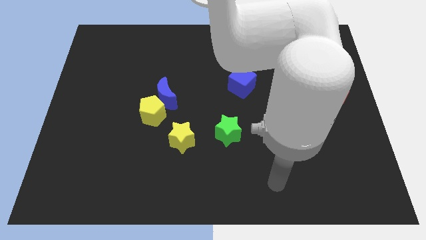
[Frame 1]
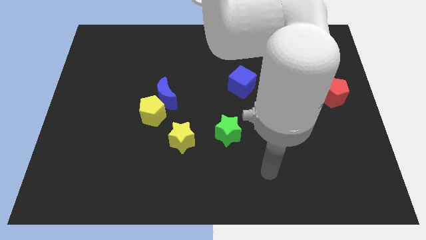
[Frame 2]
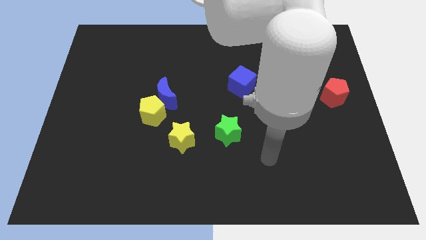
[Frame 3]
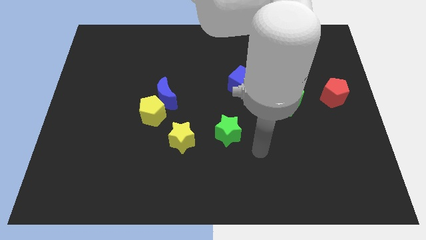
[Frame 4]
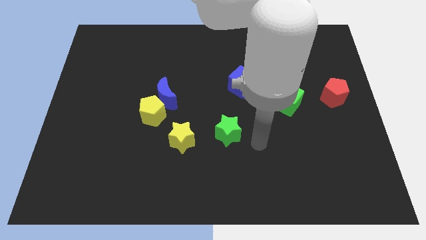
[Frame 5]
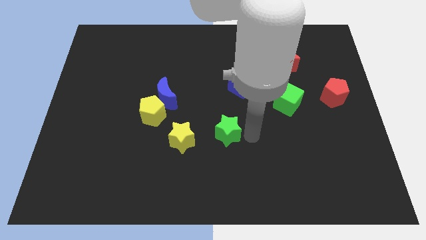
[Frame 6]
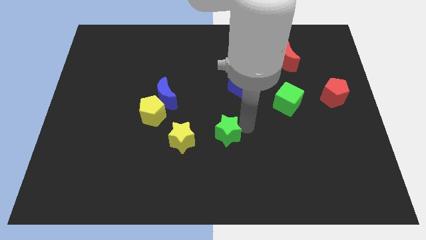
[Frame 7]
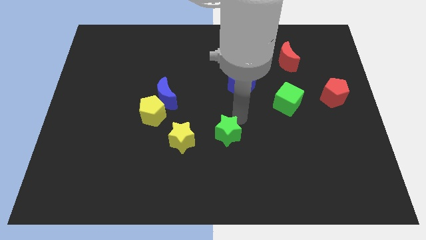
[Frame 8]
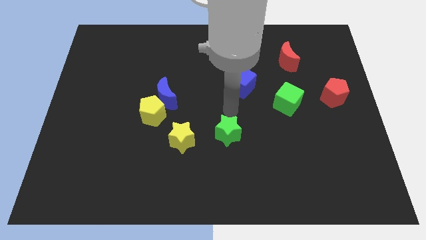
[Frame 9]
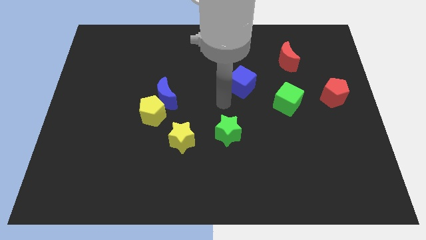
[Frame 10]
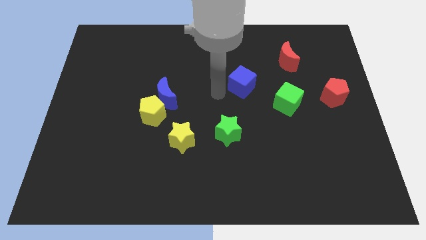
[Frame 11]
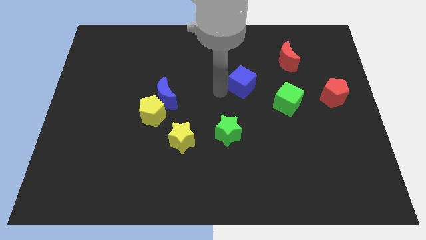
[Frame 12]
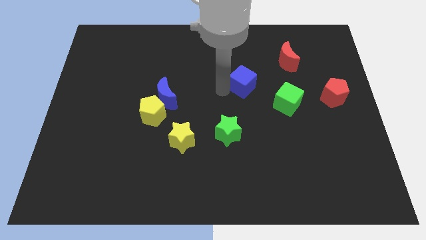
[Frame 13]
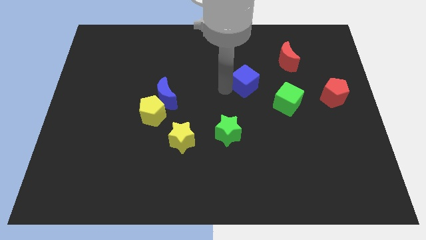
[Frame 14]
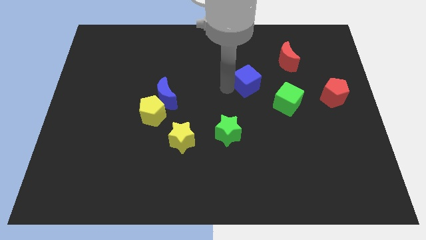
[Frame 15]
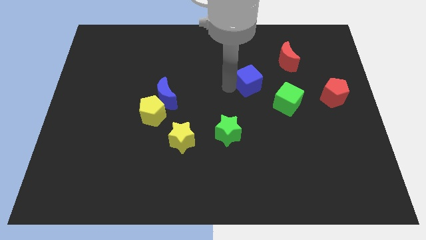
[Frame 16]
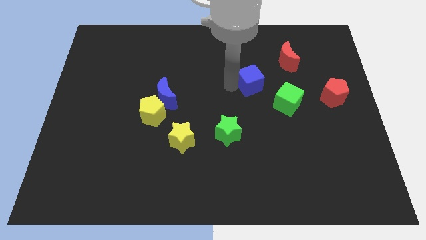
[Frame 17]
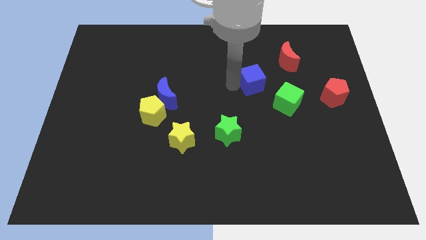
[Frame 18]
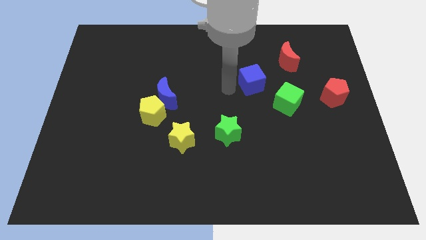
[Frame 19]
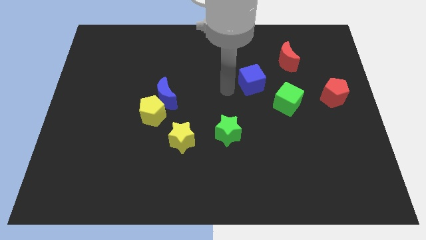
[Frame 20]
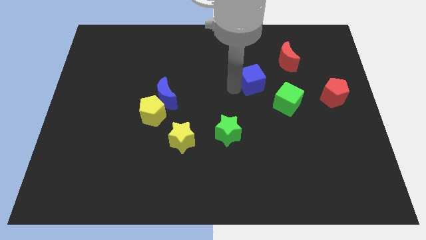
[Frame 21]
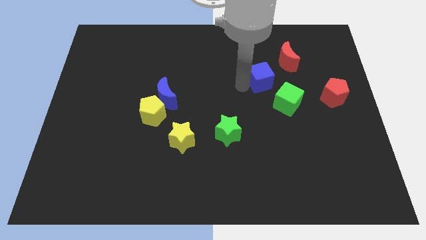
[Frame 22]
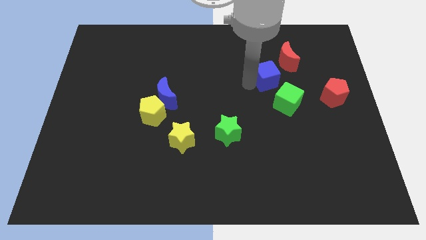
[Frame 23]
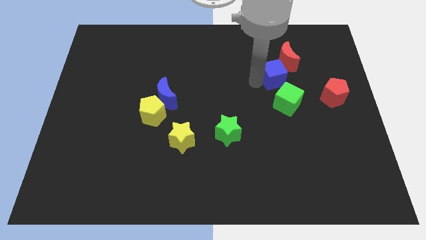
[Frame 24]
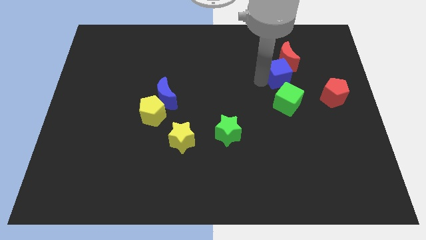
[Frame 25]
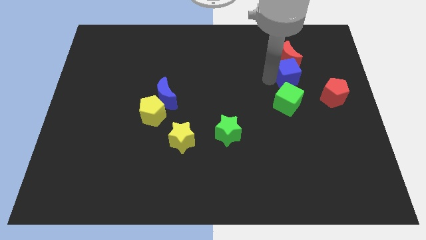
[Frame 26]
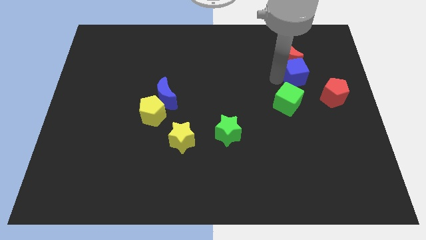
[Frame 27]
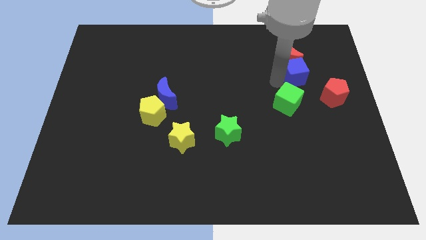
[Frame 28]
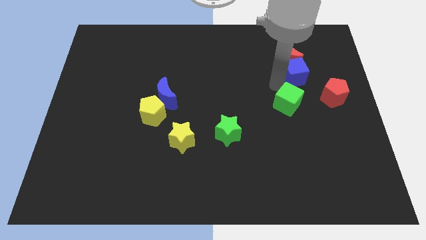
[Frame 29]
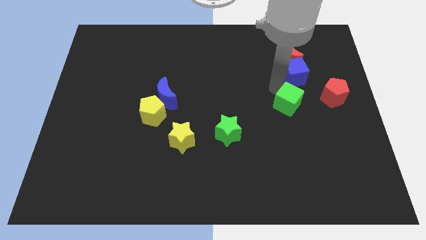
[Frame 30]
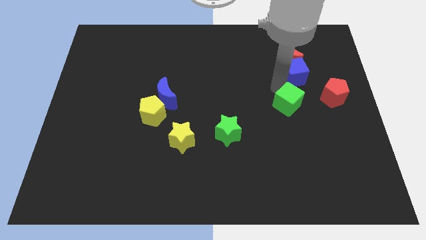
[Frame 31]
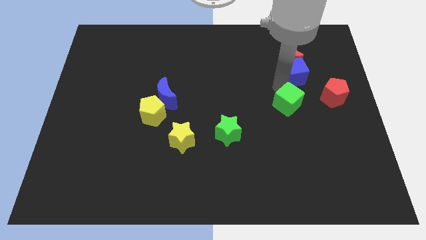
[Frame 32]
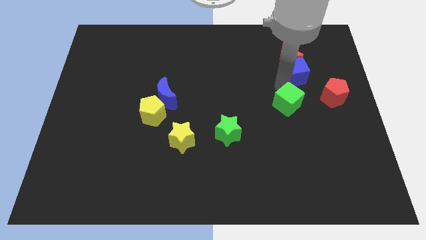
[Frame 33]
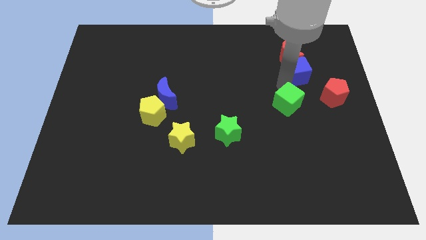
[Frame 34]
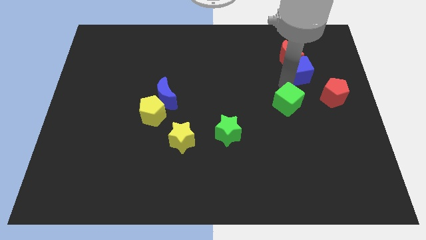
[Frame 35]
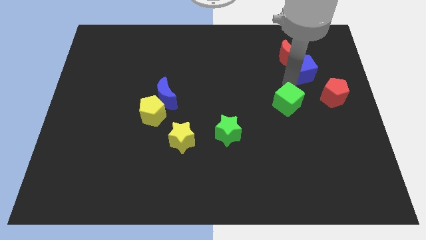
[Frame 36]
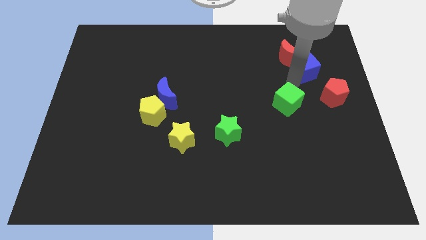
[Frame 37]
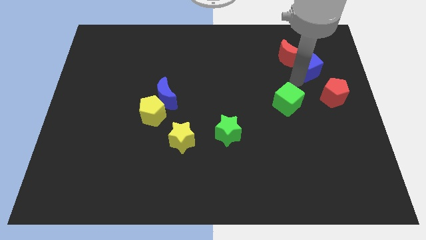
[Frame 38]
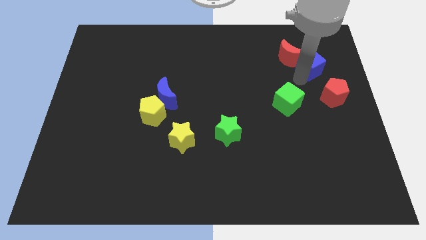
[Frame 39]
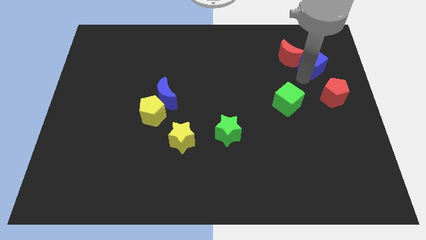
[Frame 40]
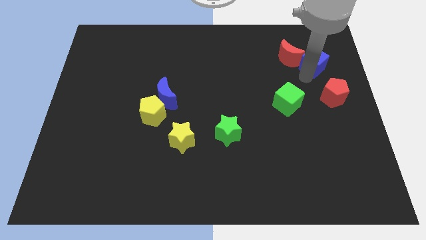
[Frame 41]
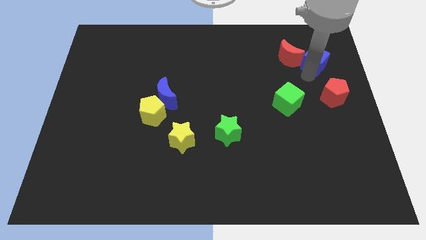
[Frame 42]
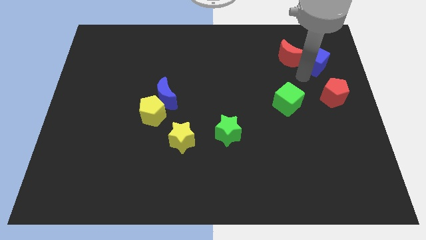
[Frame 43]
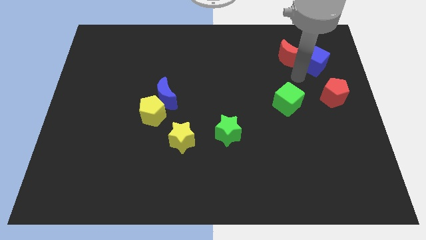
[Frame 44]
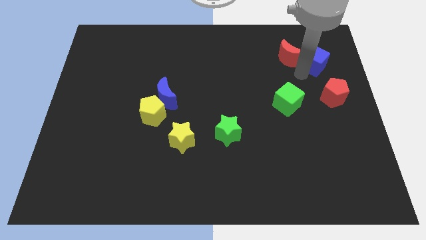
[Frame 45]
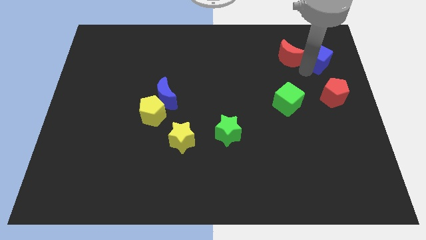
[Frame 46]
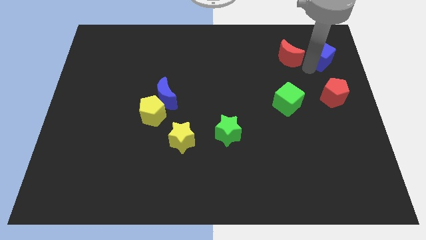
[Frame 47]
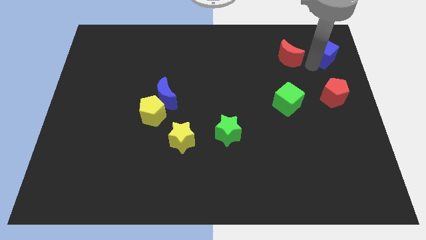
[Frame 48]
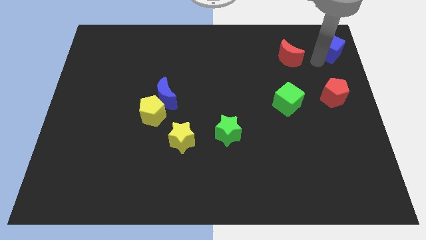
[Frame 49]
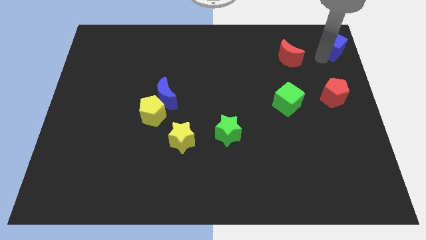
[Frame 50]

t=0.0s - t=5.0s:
put the blue cube to the top right

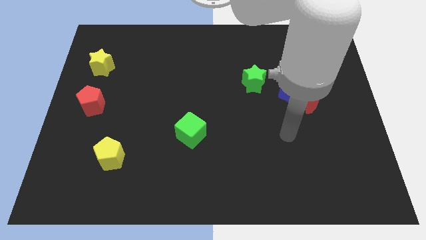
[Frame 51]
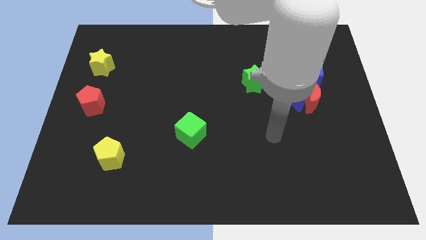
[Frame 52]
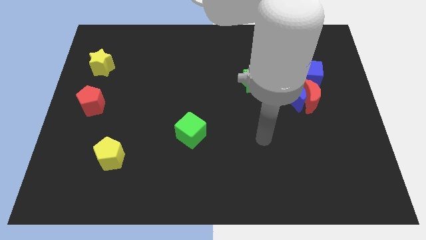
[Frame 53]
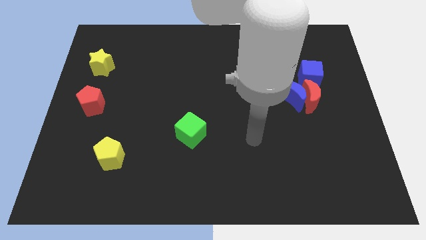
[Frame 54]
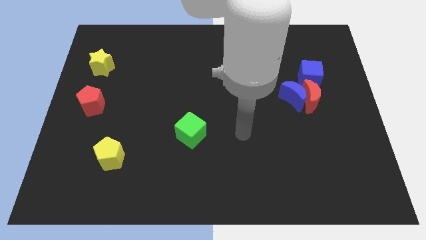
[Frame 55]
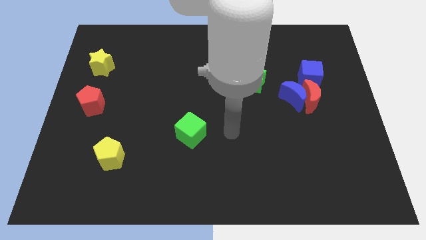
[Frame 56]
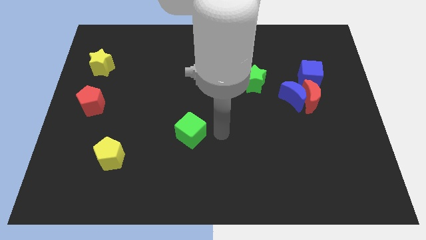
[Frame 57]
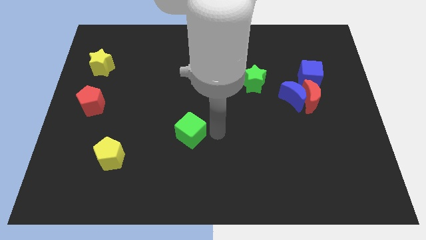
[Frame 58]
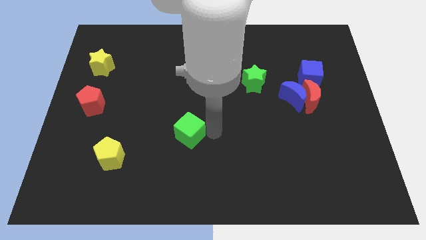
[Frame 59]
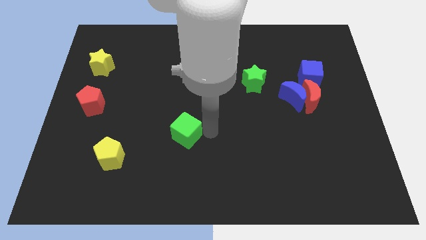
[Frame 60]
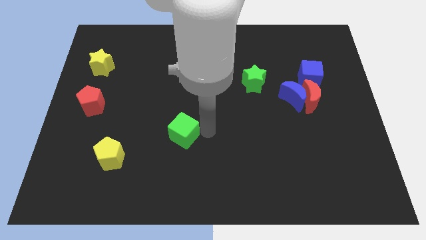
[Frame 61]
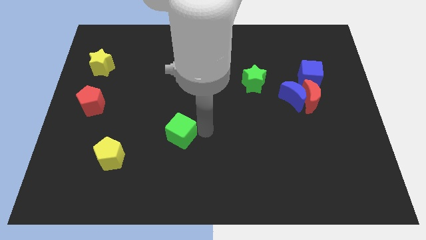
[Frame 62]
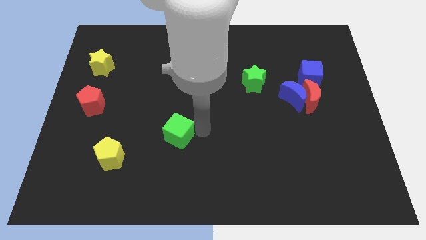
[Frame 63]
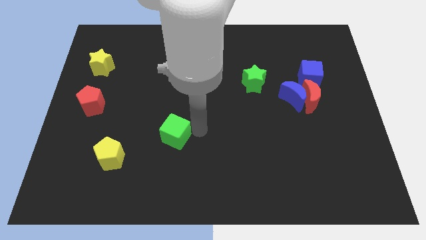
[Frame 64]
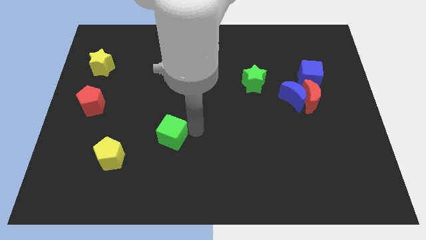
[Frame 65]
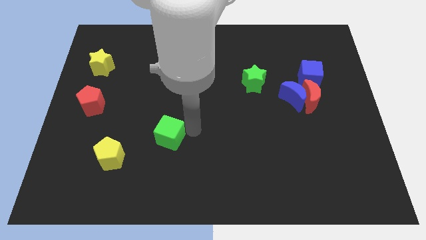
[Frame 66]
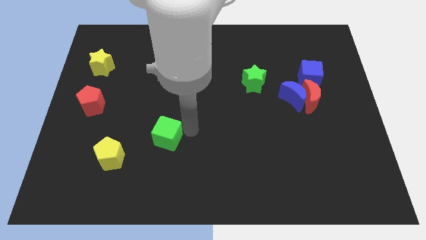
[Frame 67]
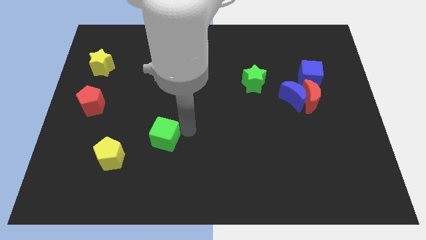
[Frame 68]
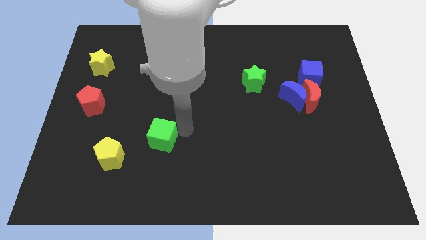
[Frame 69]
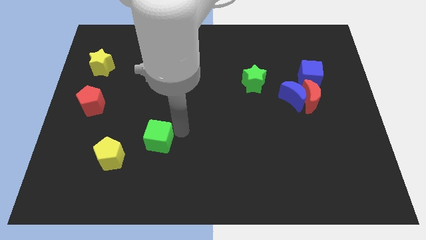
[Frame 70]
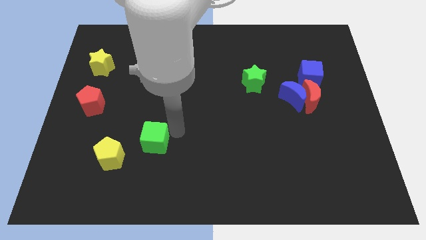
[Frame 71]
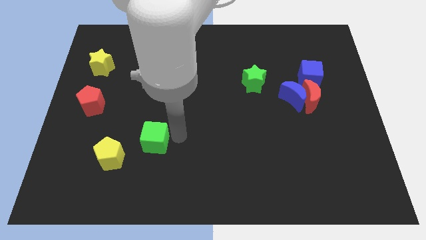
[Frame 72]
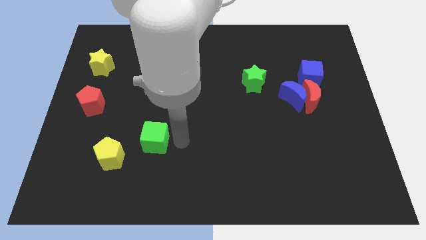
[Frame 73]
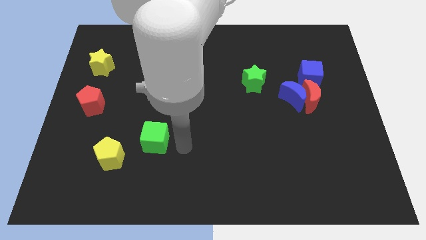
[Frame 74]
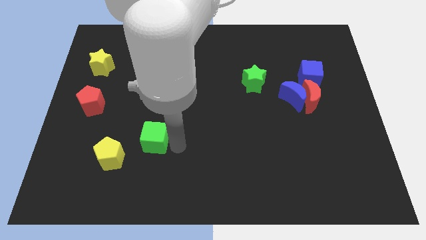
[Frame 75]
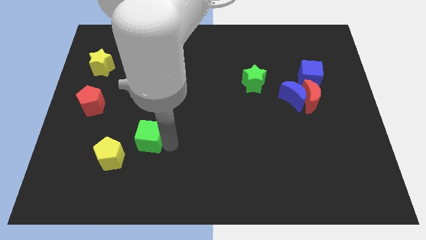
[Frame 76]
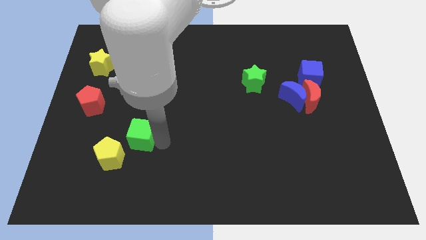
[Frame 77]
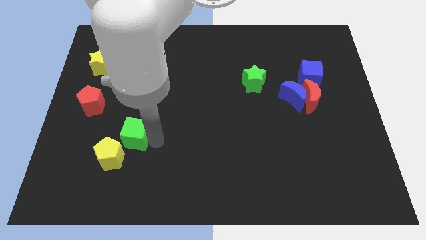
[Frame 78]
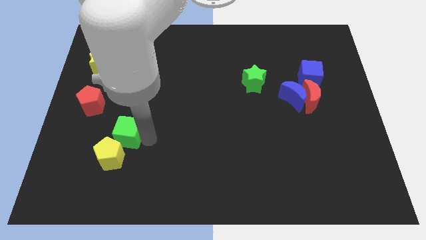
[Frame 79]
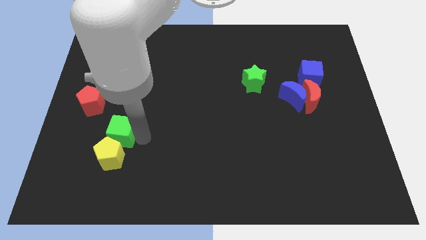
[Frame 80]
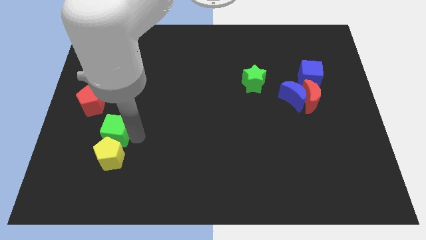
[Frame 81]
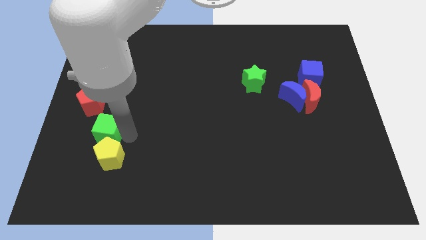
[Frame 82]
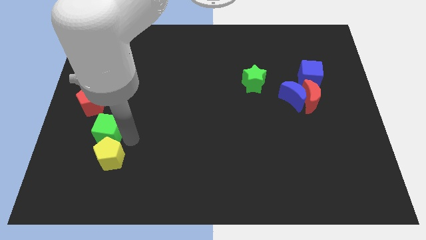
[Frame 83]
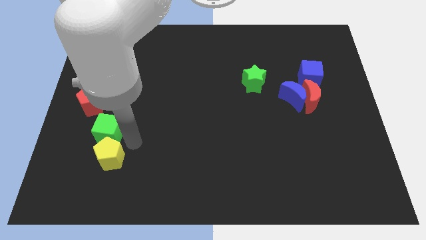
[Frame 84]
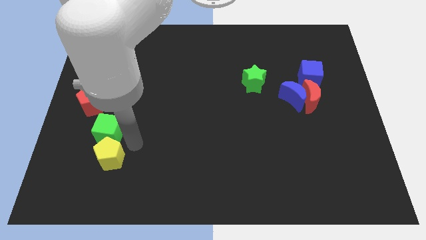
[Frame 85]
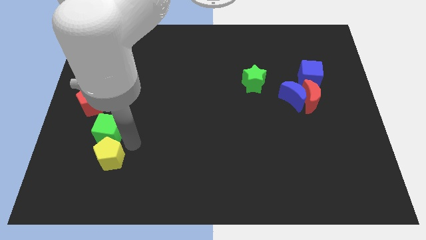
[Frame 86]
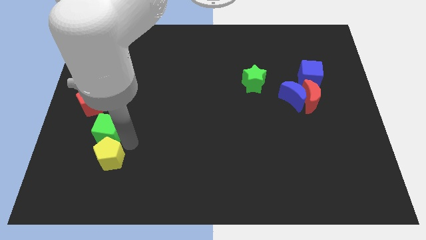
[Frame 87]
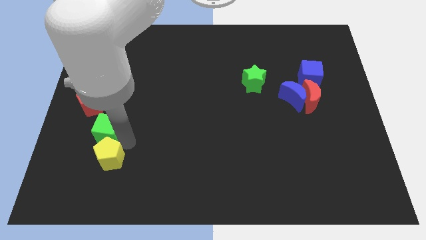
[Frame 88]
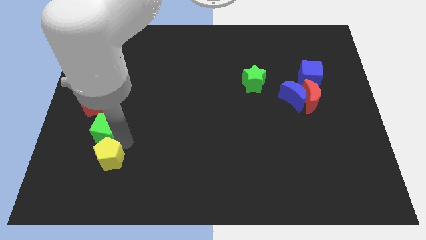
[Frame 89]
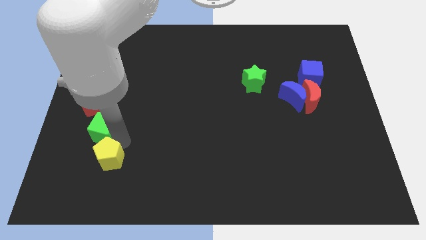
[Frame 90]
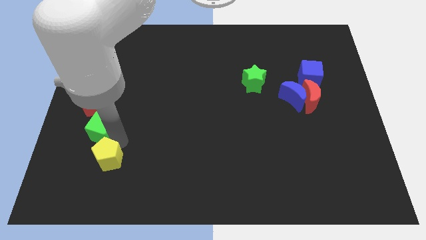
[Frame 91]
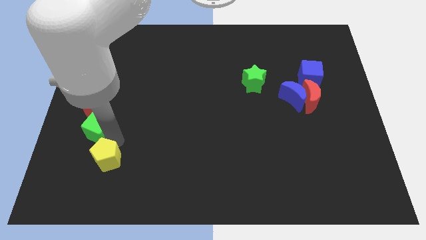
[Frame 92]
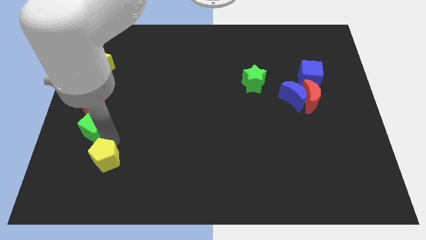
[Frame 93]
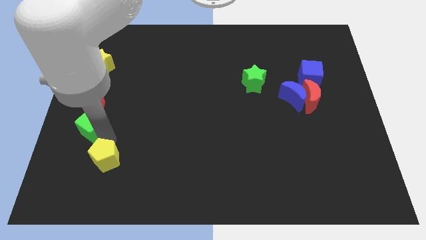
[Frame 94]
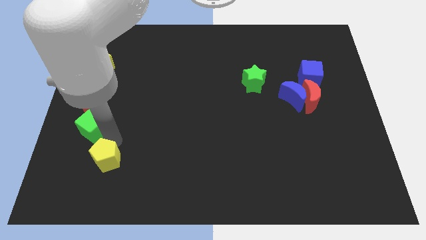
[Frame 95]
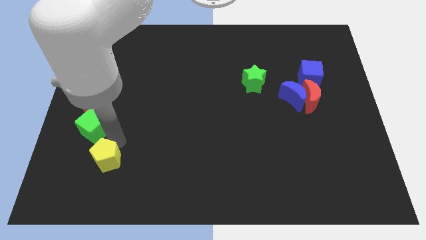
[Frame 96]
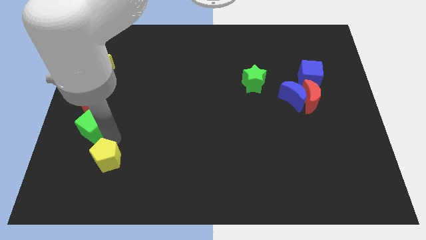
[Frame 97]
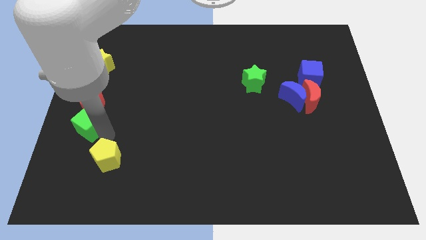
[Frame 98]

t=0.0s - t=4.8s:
move the green cube to the left side of the board
